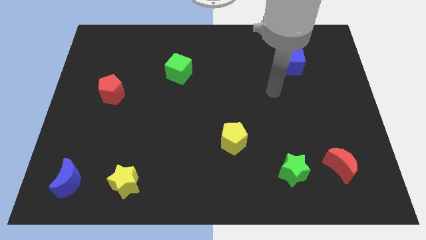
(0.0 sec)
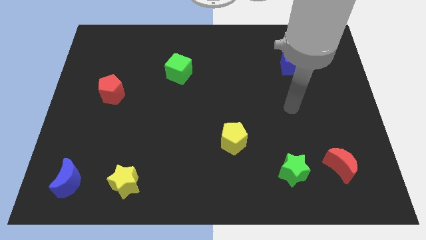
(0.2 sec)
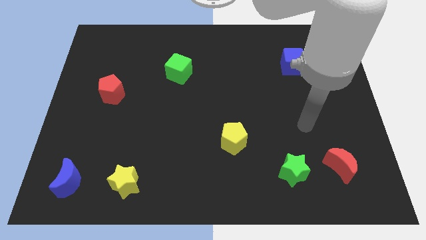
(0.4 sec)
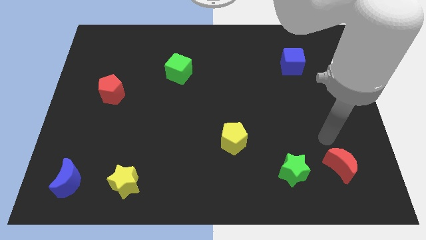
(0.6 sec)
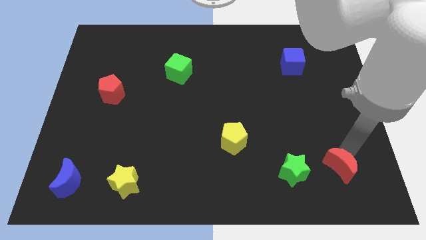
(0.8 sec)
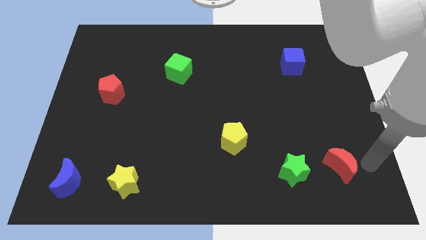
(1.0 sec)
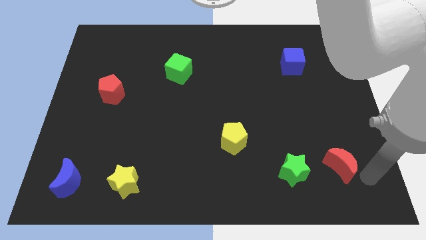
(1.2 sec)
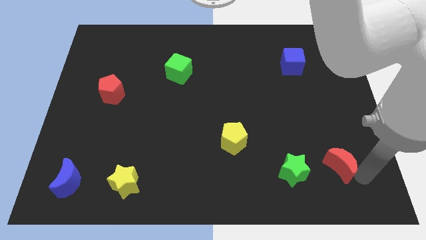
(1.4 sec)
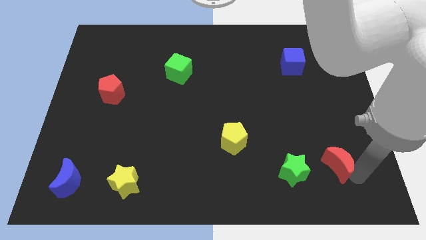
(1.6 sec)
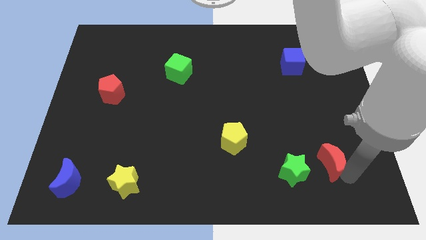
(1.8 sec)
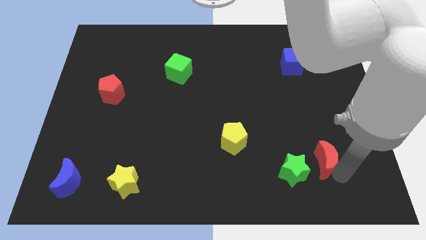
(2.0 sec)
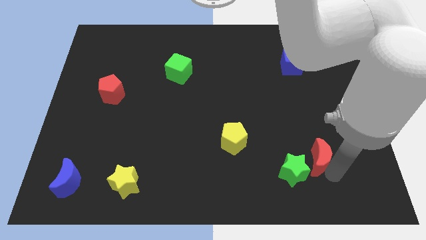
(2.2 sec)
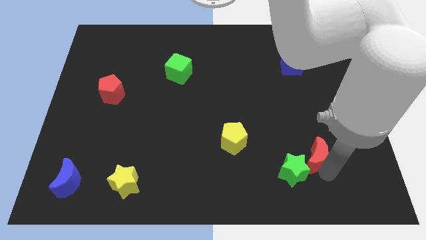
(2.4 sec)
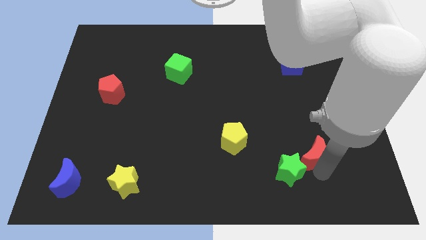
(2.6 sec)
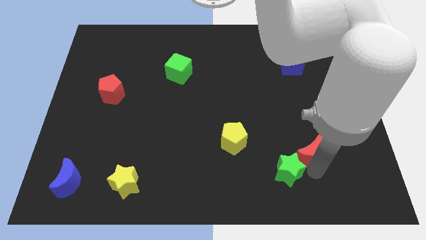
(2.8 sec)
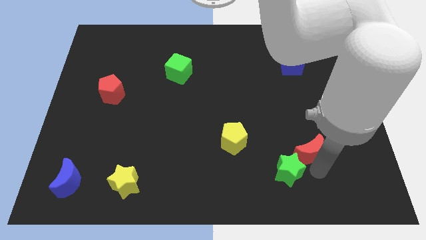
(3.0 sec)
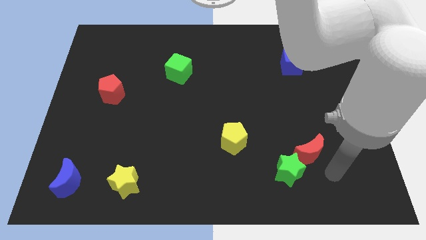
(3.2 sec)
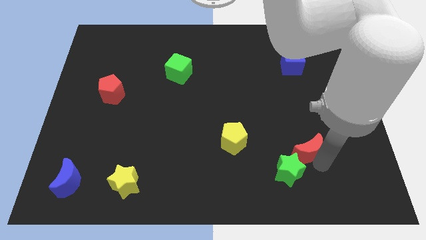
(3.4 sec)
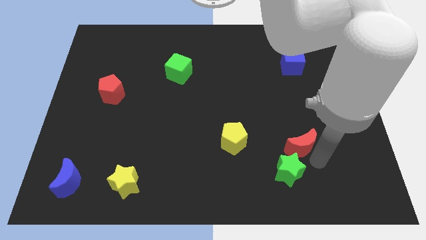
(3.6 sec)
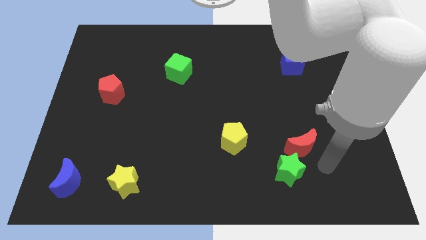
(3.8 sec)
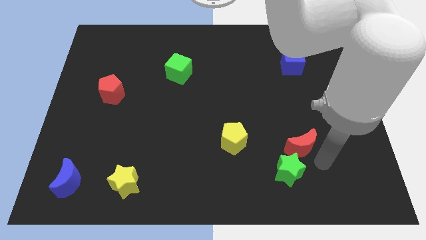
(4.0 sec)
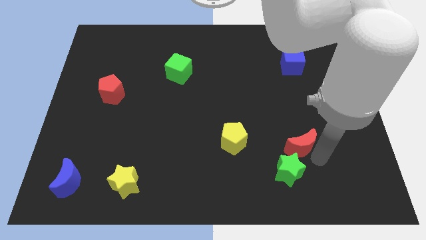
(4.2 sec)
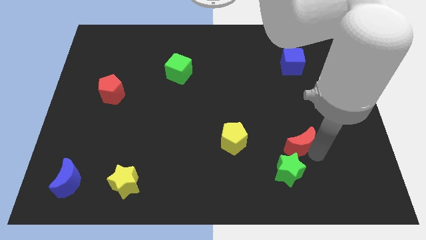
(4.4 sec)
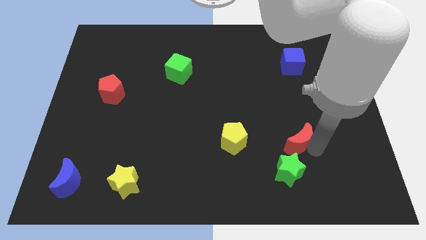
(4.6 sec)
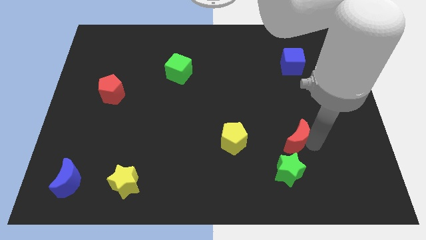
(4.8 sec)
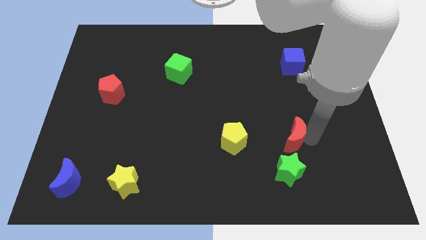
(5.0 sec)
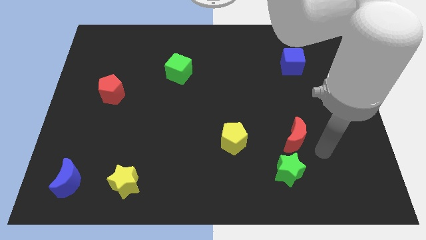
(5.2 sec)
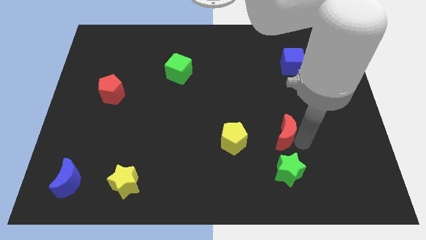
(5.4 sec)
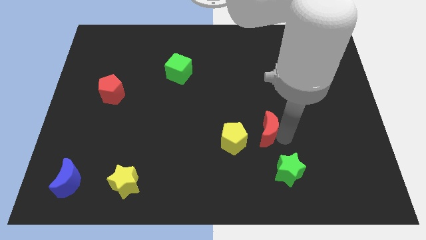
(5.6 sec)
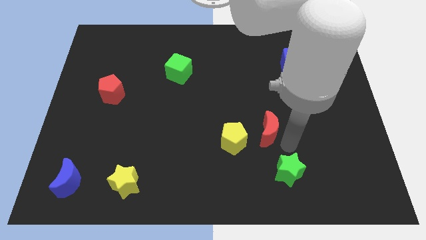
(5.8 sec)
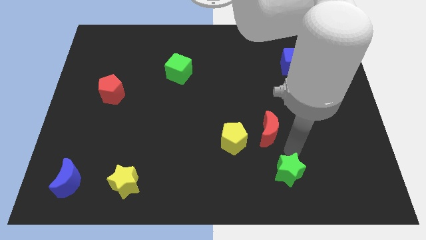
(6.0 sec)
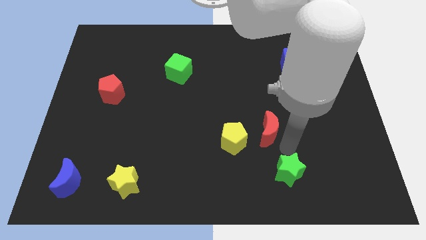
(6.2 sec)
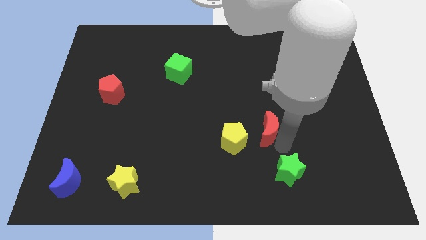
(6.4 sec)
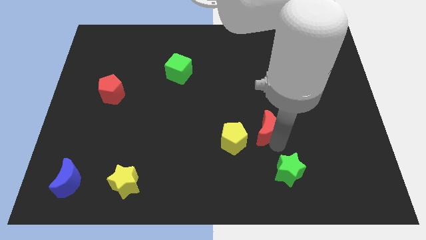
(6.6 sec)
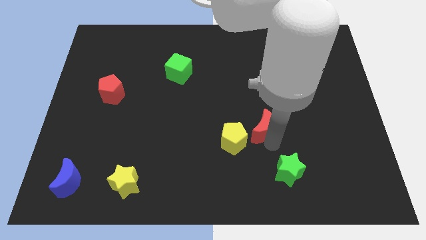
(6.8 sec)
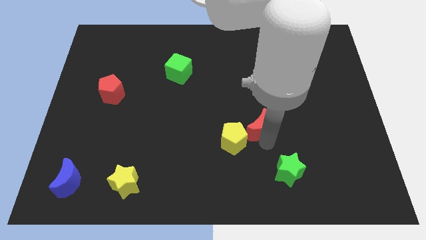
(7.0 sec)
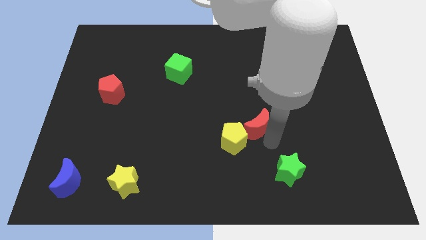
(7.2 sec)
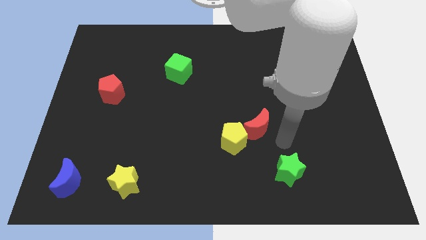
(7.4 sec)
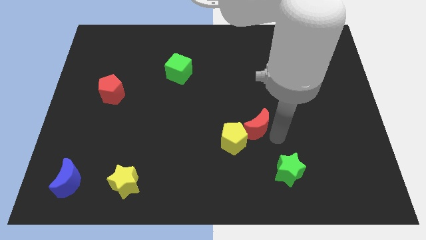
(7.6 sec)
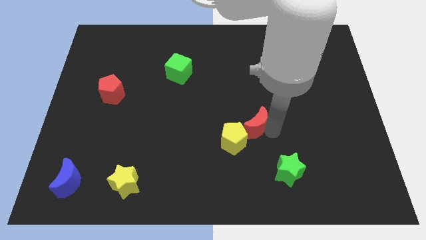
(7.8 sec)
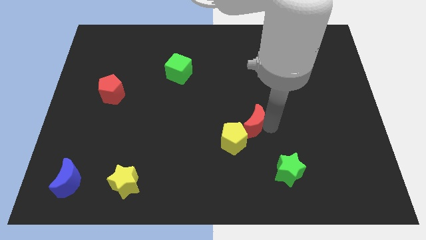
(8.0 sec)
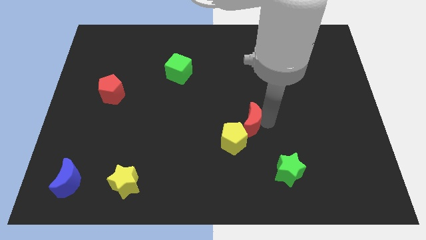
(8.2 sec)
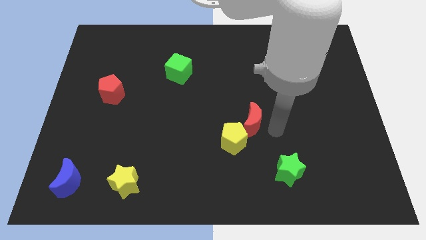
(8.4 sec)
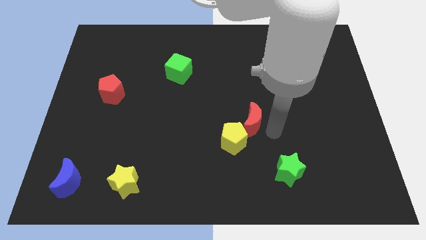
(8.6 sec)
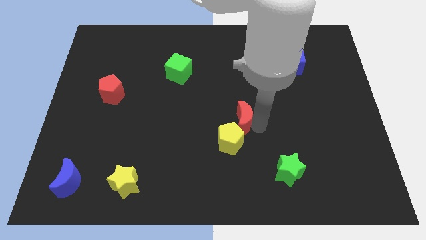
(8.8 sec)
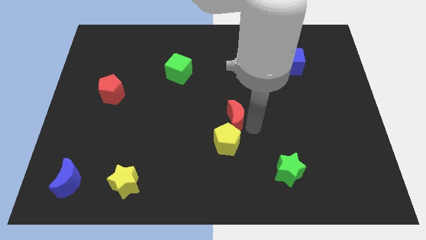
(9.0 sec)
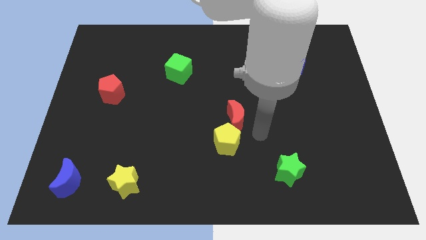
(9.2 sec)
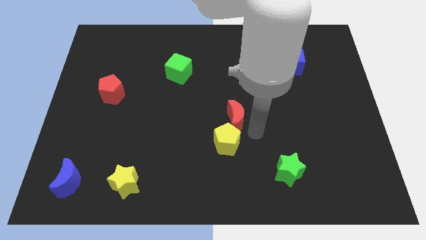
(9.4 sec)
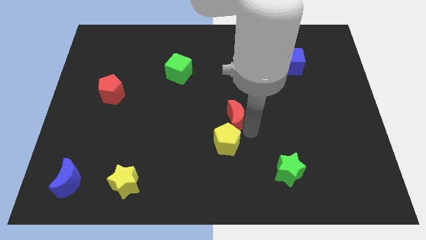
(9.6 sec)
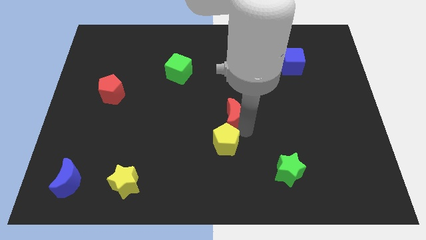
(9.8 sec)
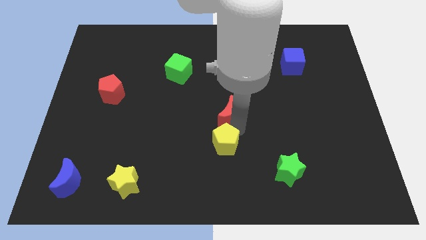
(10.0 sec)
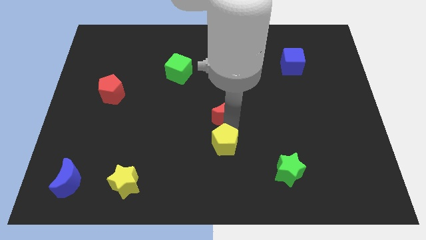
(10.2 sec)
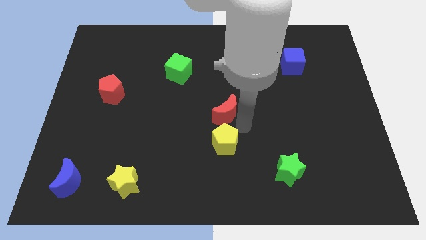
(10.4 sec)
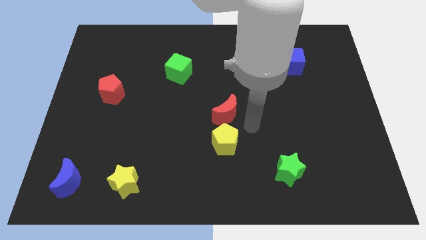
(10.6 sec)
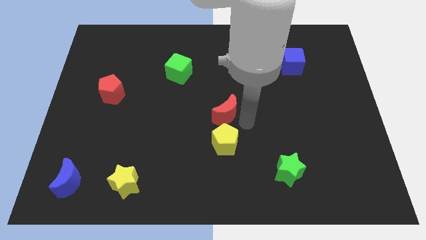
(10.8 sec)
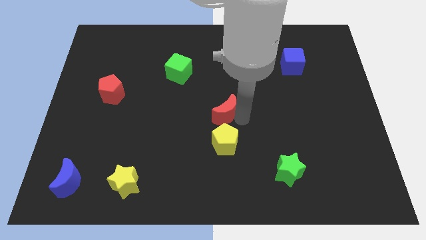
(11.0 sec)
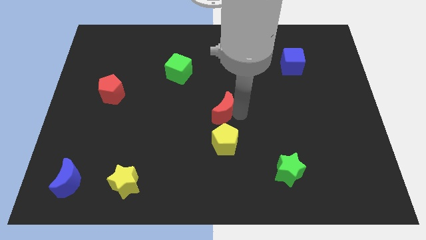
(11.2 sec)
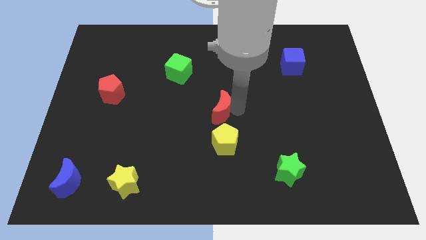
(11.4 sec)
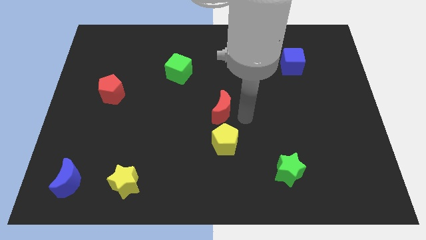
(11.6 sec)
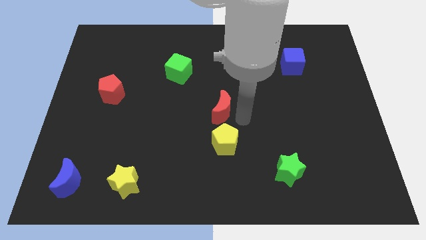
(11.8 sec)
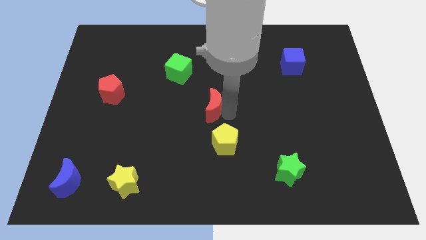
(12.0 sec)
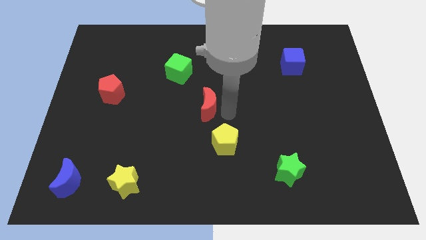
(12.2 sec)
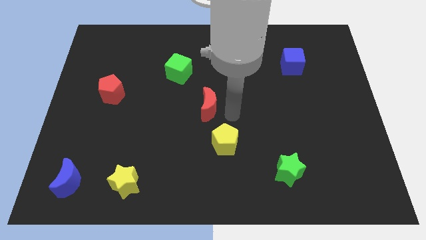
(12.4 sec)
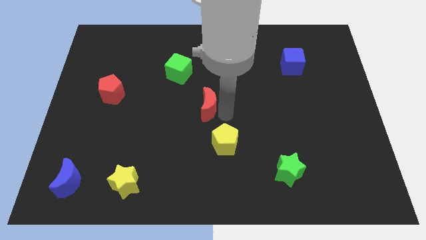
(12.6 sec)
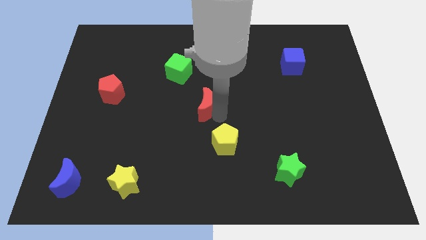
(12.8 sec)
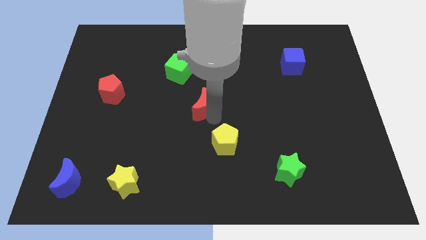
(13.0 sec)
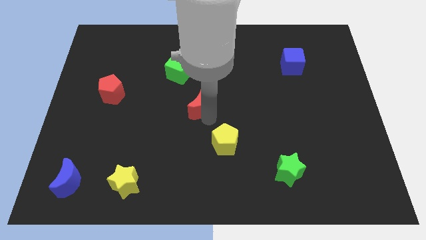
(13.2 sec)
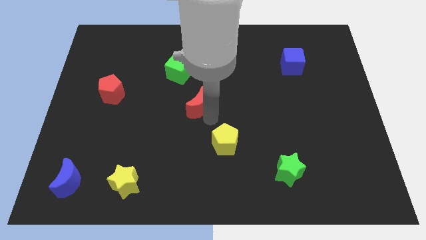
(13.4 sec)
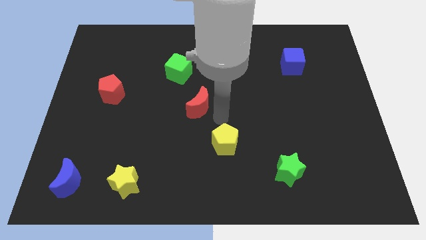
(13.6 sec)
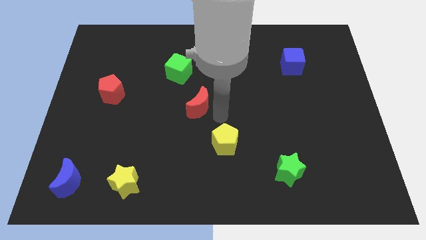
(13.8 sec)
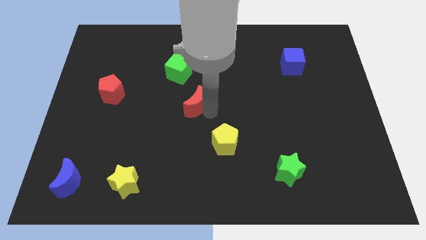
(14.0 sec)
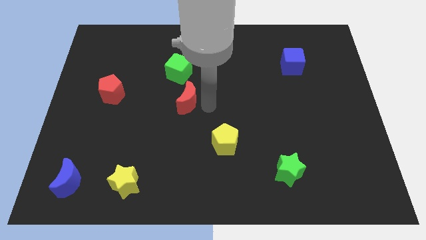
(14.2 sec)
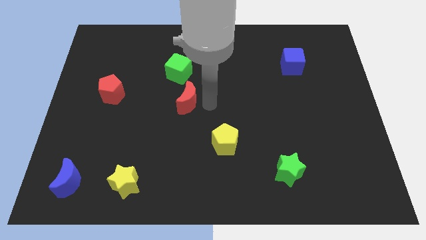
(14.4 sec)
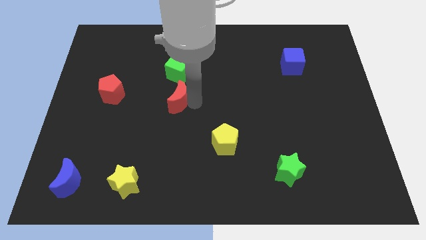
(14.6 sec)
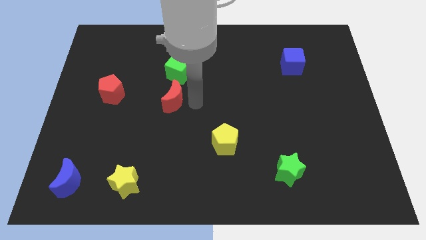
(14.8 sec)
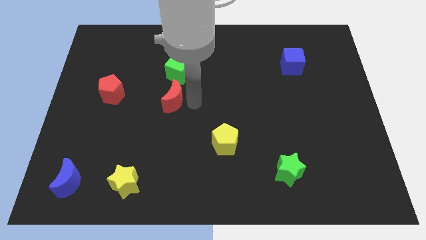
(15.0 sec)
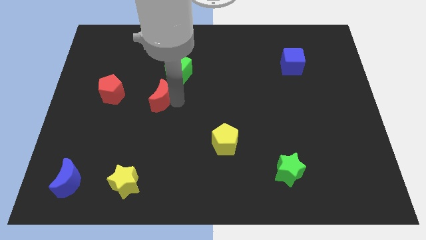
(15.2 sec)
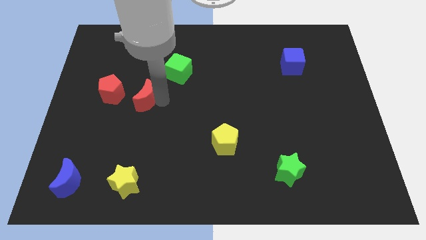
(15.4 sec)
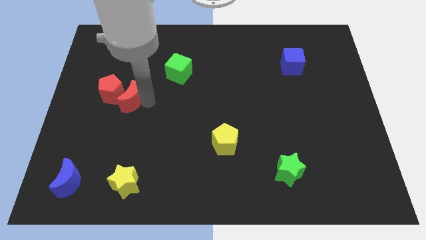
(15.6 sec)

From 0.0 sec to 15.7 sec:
slide the red moon next to the red pentagon

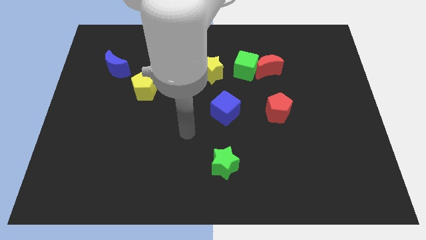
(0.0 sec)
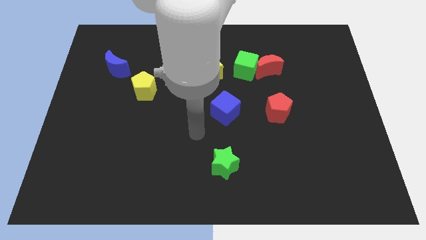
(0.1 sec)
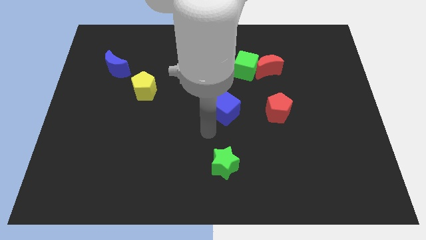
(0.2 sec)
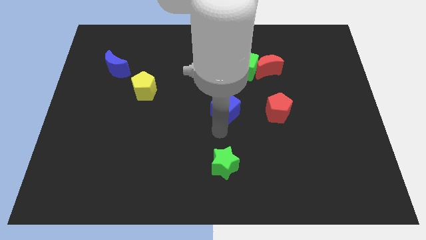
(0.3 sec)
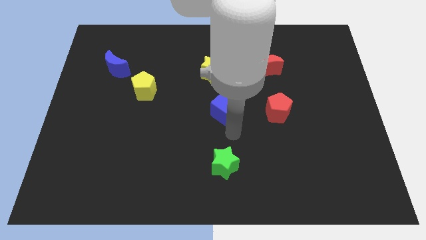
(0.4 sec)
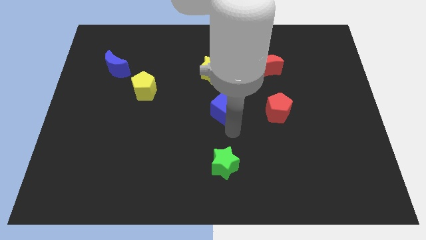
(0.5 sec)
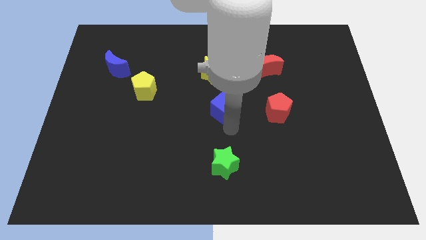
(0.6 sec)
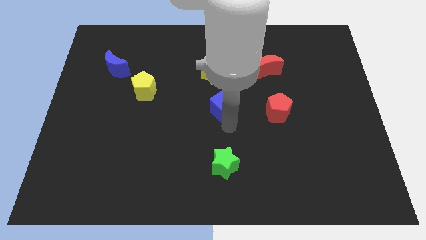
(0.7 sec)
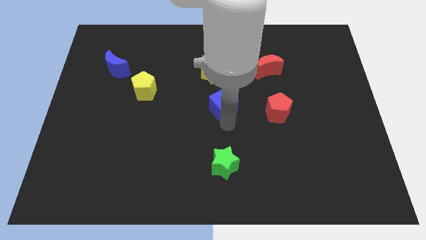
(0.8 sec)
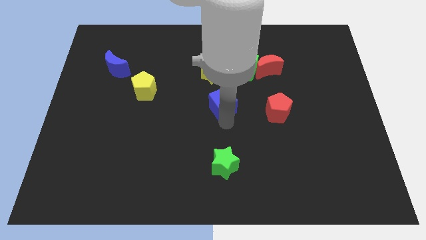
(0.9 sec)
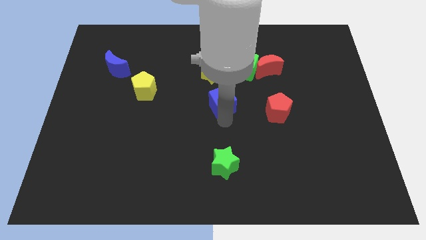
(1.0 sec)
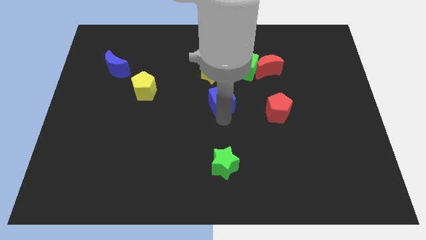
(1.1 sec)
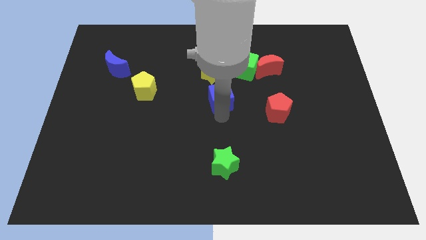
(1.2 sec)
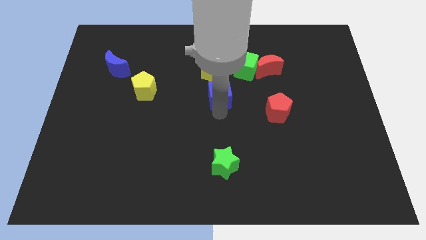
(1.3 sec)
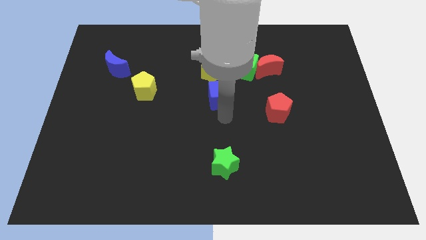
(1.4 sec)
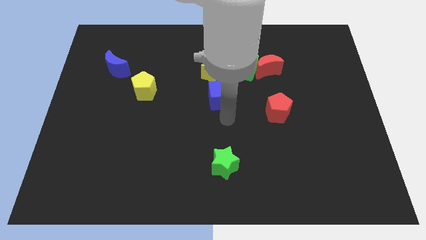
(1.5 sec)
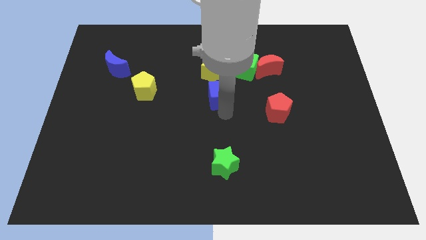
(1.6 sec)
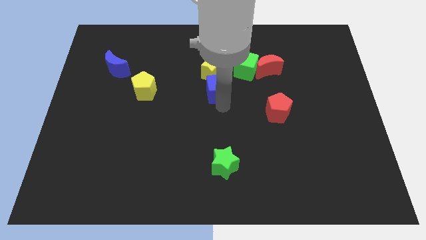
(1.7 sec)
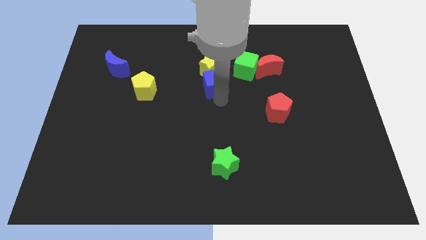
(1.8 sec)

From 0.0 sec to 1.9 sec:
slide the blue cube next to the yellow star
